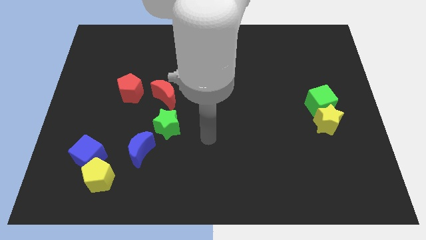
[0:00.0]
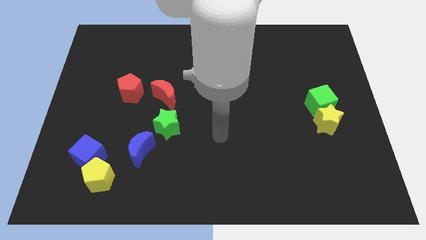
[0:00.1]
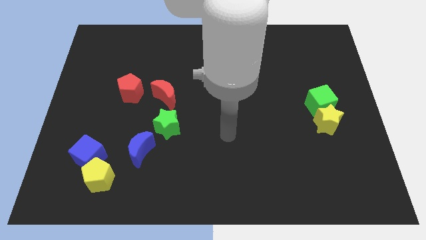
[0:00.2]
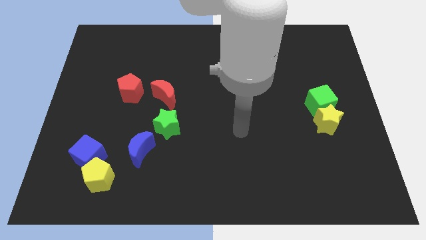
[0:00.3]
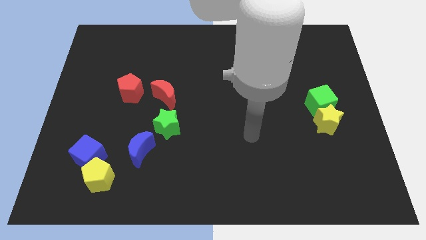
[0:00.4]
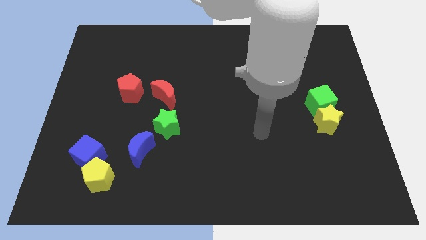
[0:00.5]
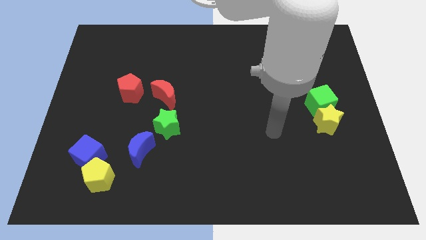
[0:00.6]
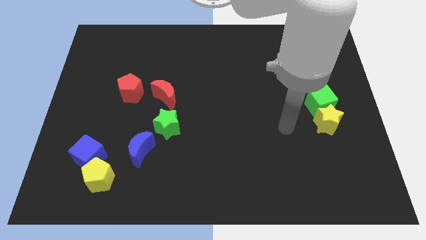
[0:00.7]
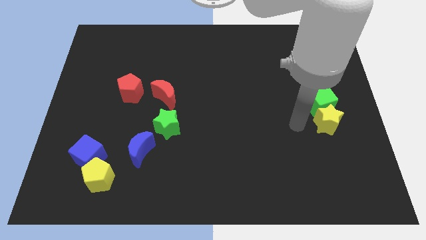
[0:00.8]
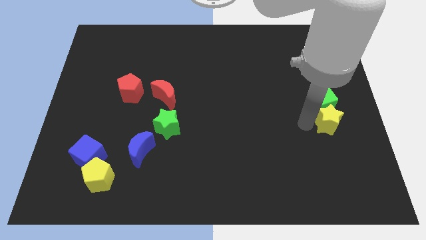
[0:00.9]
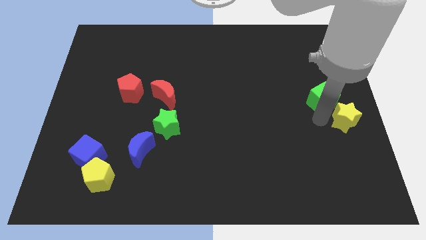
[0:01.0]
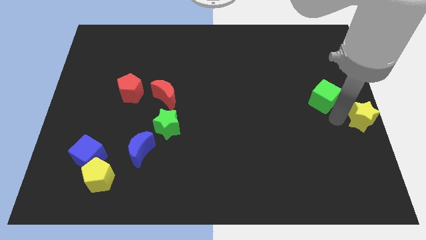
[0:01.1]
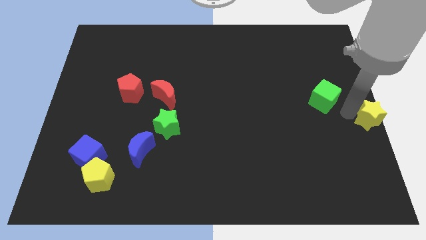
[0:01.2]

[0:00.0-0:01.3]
separate the green cube from the yellow star

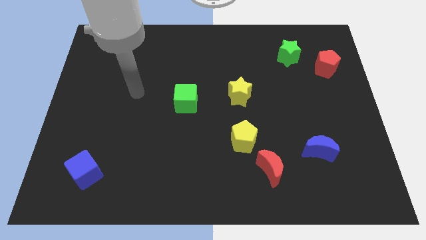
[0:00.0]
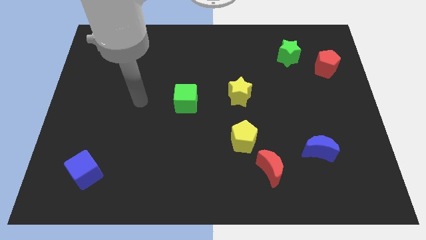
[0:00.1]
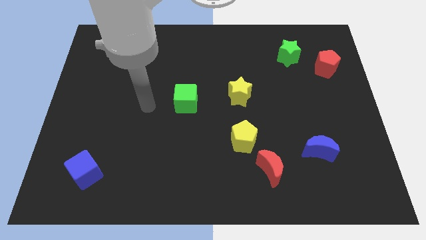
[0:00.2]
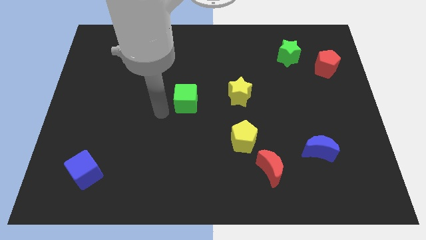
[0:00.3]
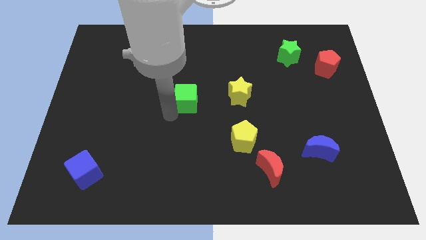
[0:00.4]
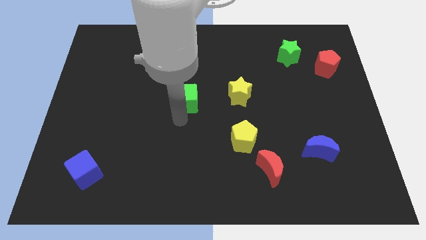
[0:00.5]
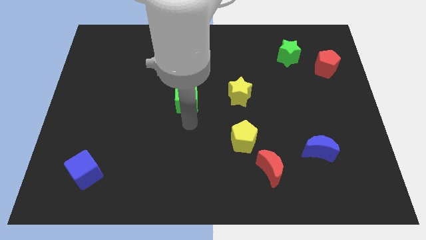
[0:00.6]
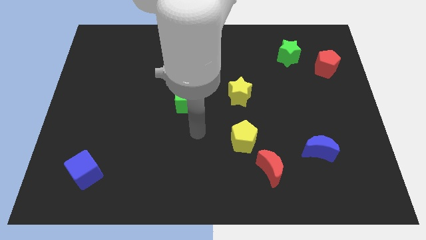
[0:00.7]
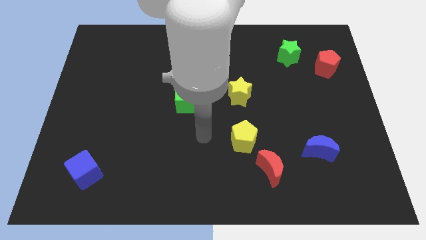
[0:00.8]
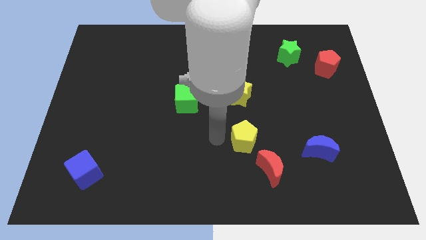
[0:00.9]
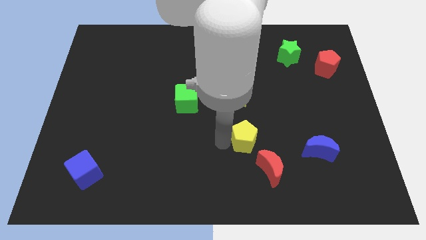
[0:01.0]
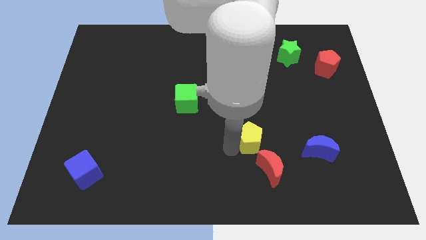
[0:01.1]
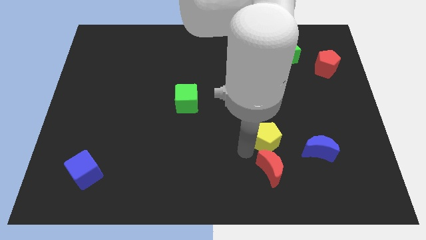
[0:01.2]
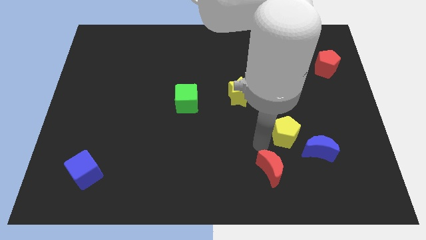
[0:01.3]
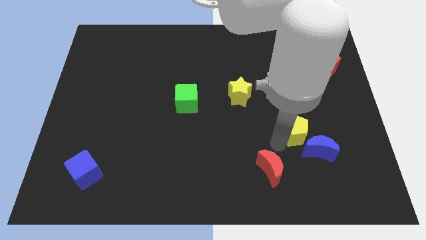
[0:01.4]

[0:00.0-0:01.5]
pull the red moon apart from the yellow pentagon

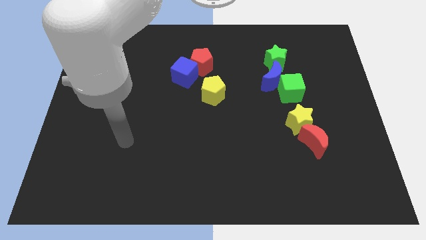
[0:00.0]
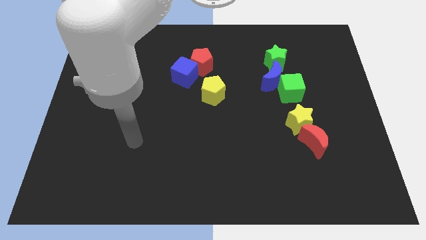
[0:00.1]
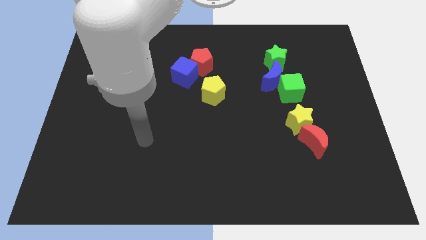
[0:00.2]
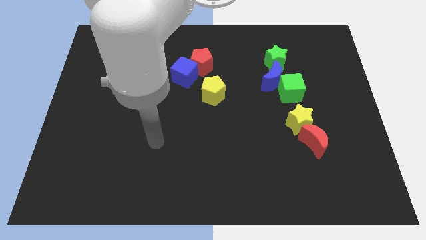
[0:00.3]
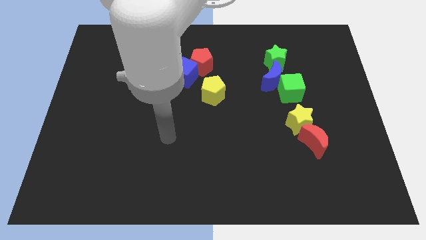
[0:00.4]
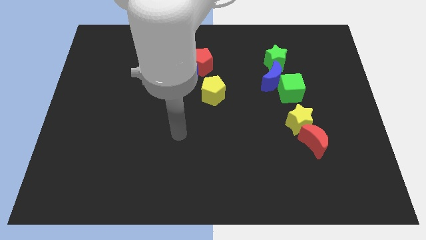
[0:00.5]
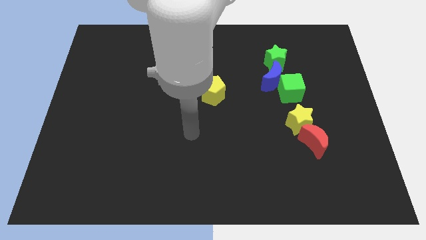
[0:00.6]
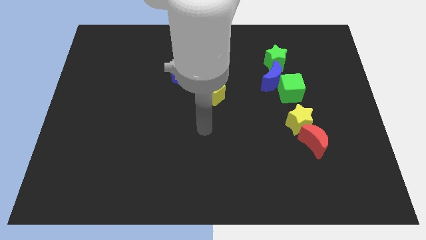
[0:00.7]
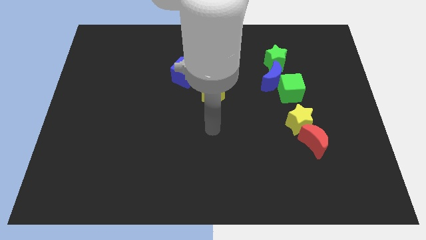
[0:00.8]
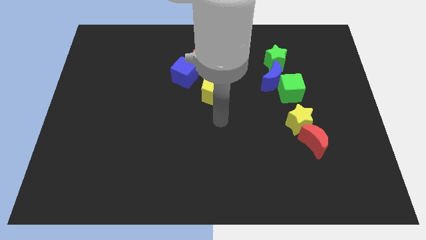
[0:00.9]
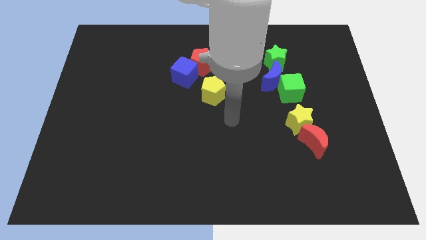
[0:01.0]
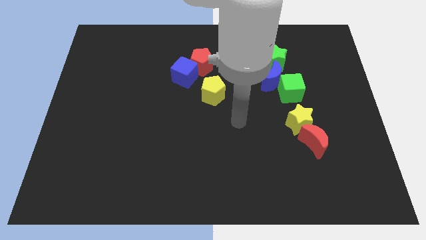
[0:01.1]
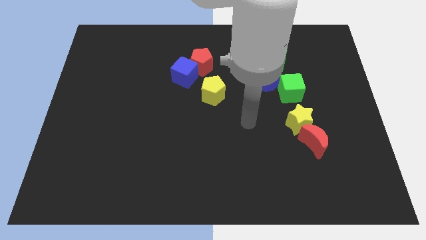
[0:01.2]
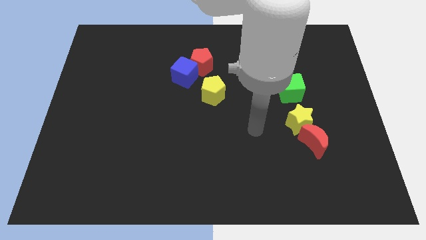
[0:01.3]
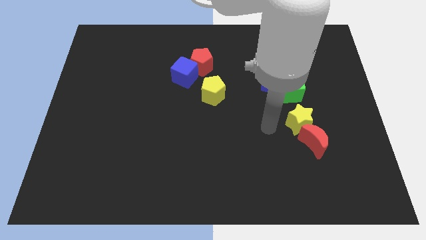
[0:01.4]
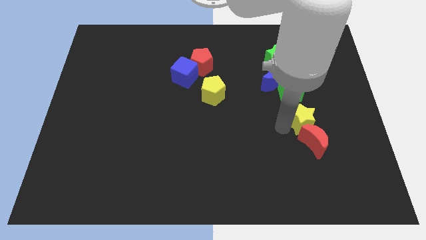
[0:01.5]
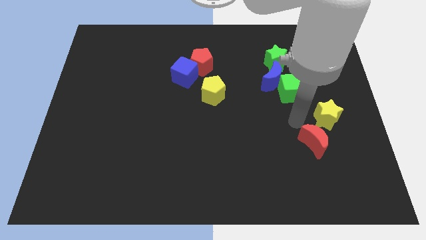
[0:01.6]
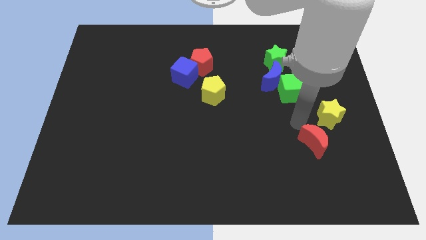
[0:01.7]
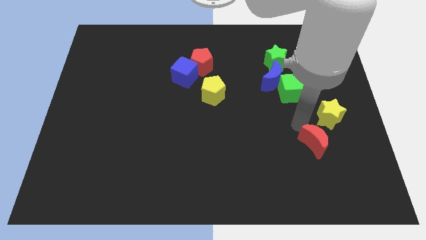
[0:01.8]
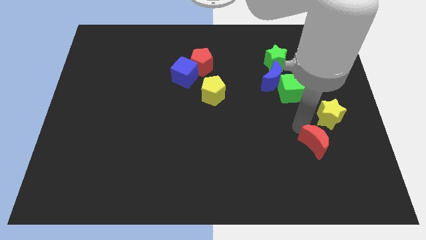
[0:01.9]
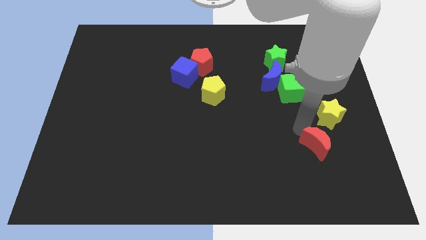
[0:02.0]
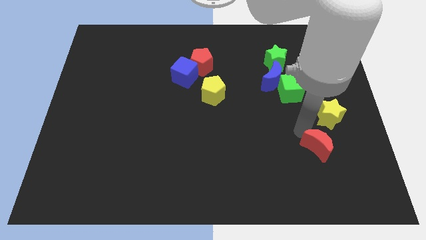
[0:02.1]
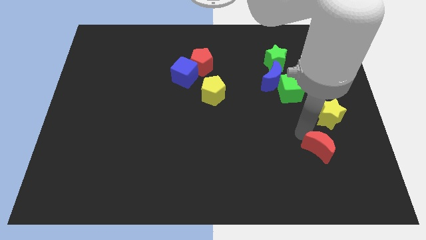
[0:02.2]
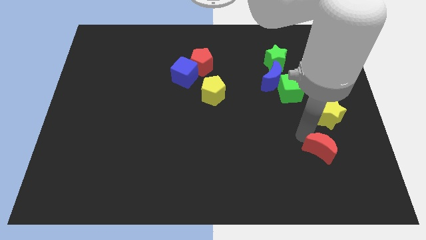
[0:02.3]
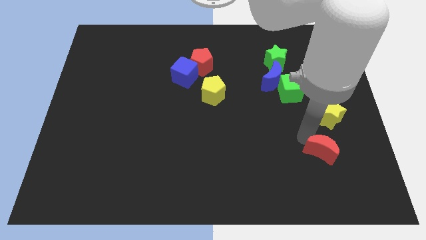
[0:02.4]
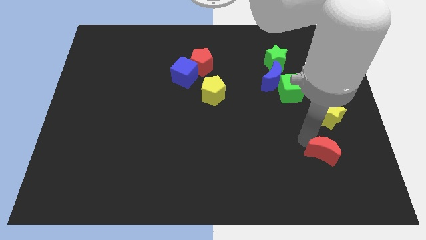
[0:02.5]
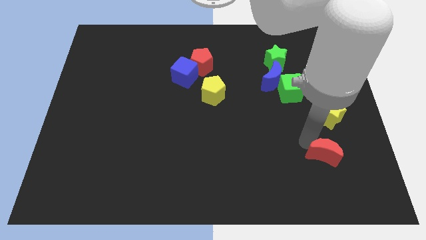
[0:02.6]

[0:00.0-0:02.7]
separate the red moon from the yellow star

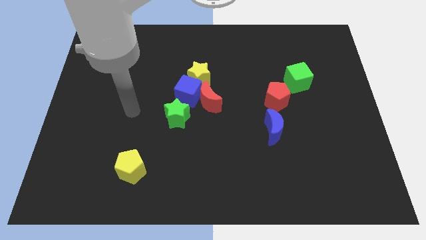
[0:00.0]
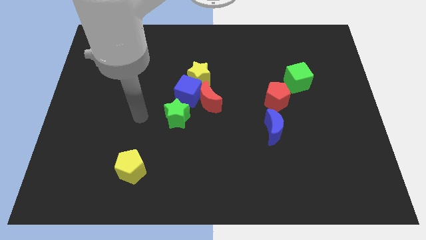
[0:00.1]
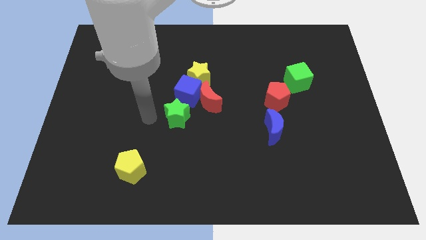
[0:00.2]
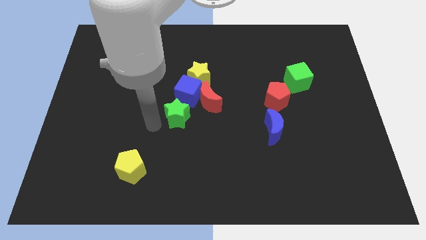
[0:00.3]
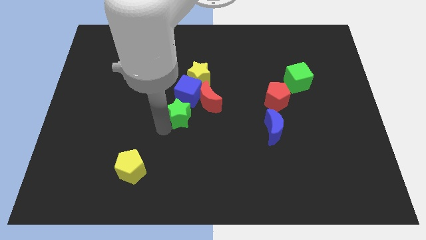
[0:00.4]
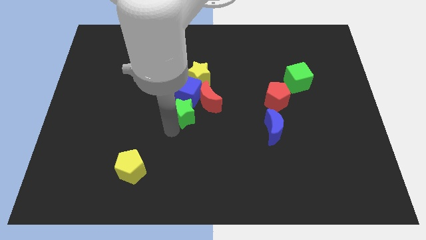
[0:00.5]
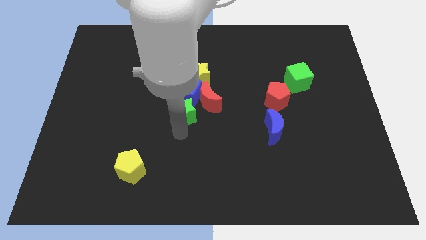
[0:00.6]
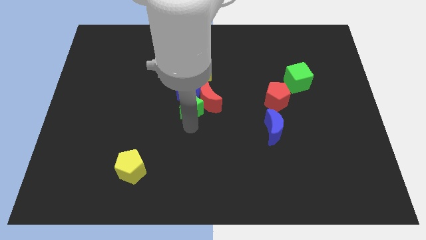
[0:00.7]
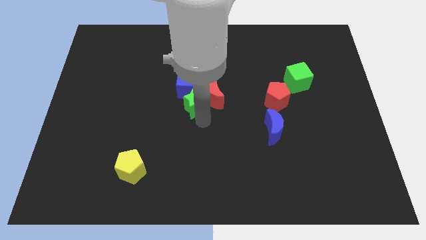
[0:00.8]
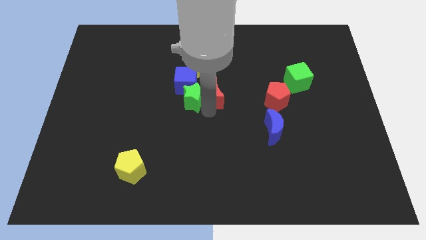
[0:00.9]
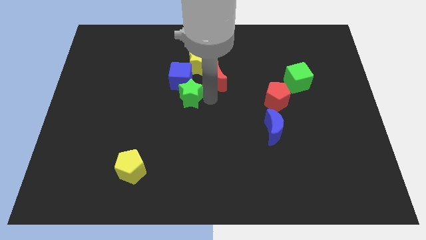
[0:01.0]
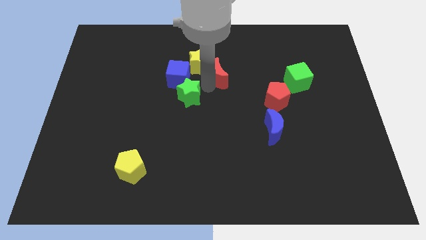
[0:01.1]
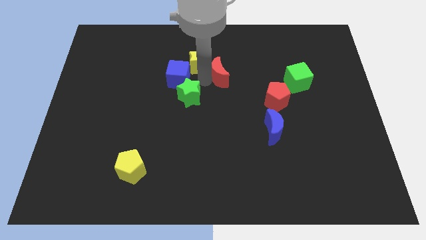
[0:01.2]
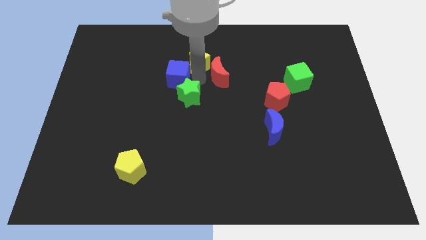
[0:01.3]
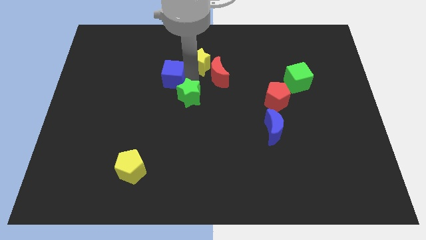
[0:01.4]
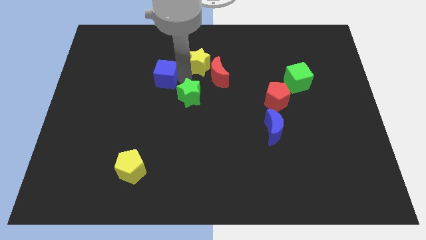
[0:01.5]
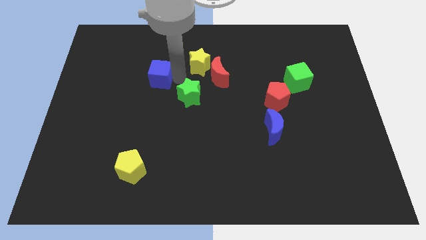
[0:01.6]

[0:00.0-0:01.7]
separate the blue cube from the group

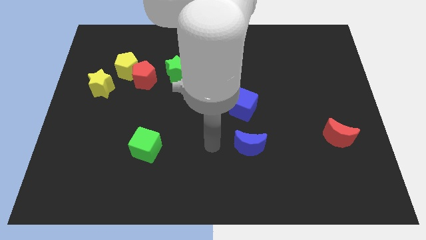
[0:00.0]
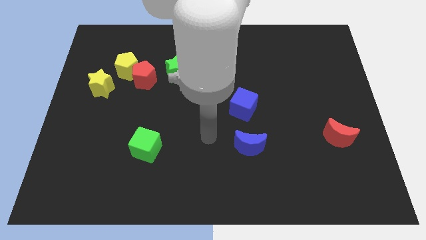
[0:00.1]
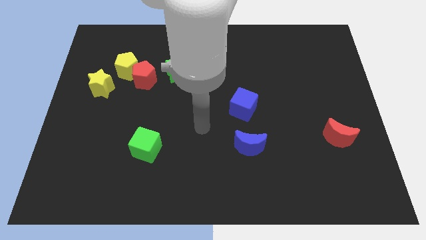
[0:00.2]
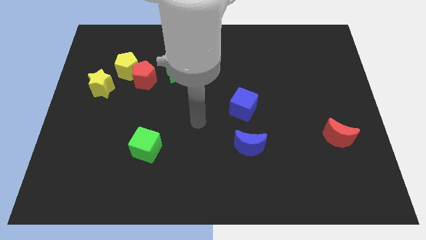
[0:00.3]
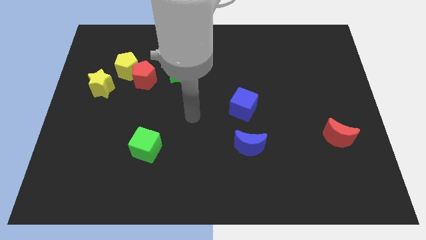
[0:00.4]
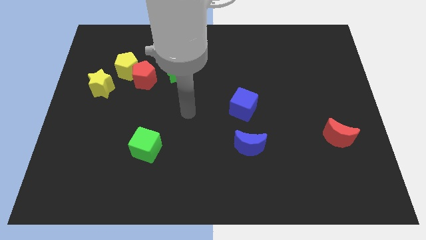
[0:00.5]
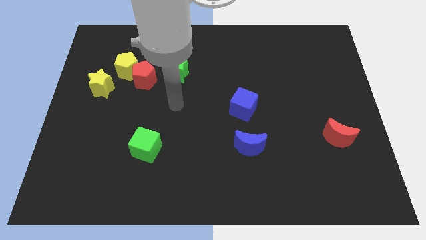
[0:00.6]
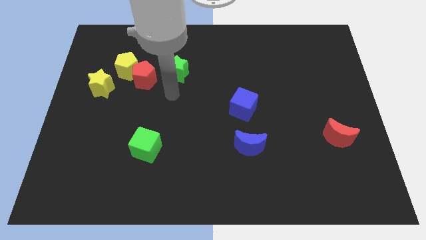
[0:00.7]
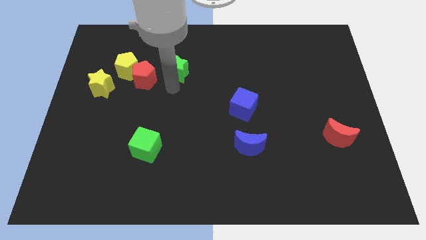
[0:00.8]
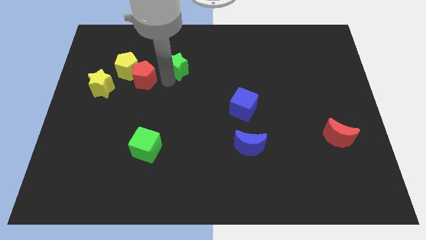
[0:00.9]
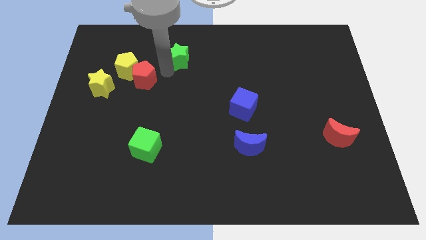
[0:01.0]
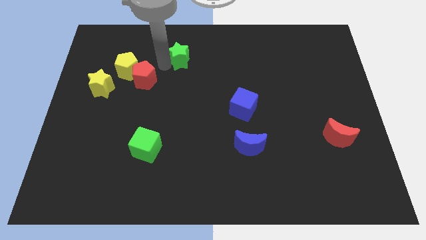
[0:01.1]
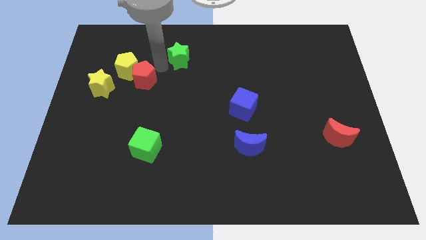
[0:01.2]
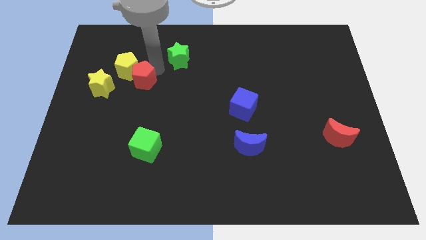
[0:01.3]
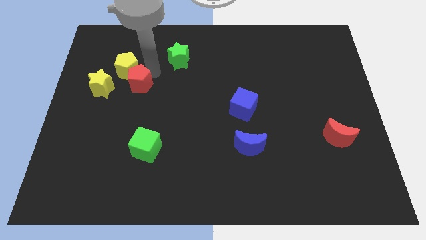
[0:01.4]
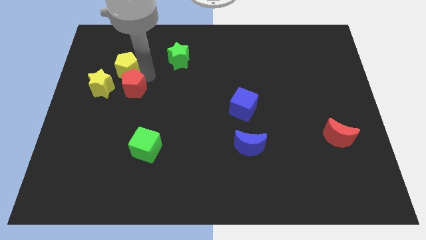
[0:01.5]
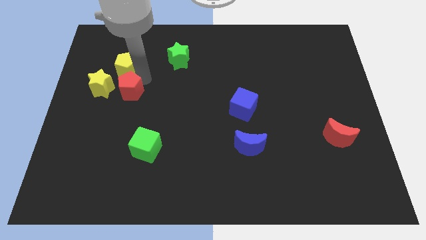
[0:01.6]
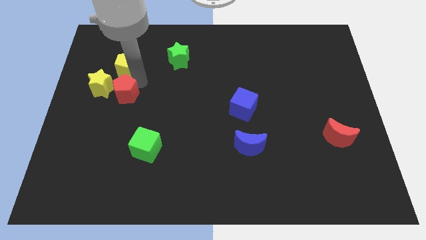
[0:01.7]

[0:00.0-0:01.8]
pull the red pentagon apart from the yellow pentagon and green star

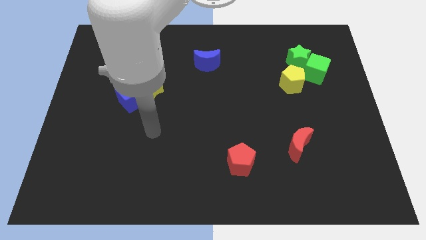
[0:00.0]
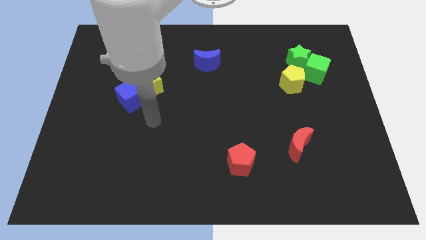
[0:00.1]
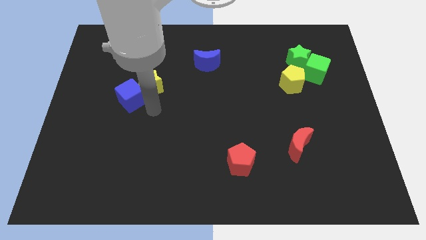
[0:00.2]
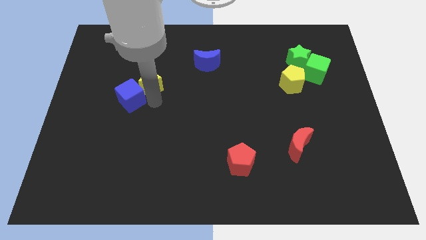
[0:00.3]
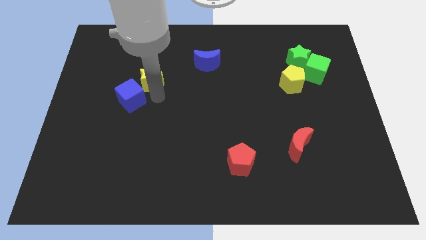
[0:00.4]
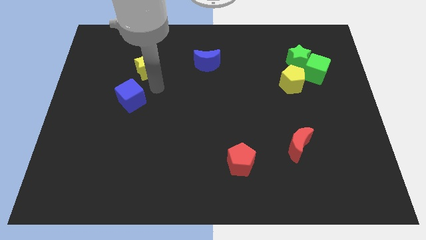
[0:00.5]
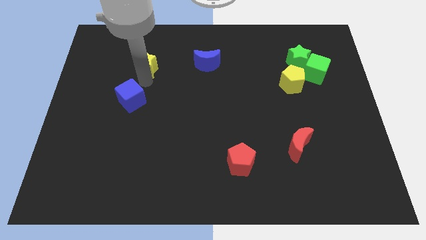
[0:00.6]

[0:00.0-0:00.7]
move the blue cube away from the yellow star
